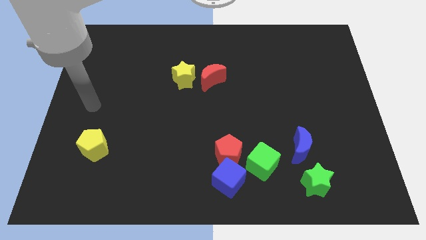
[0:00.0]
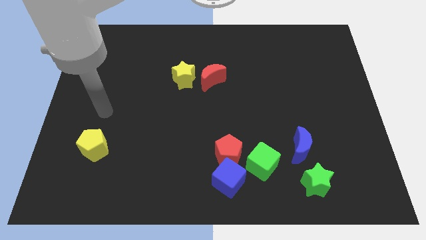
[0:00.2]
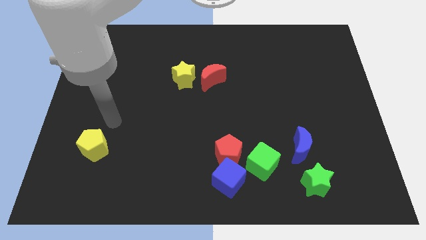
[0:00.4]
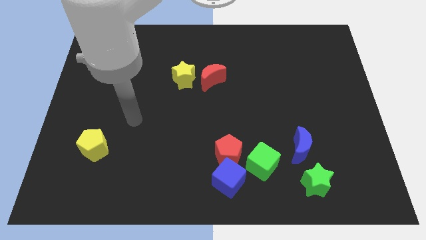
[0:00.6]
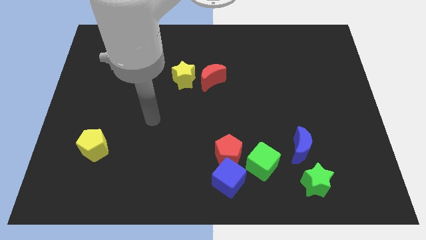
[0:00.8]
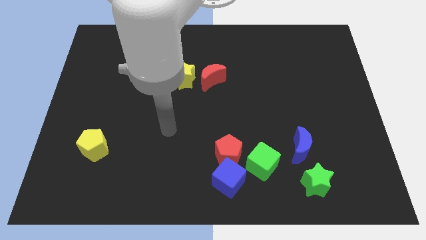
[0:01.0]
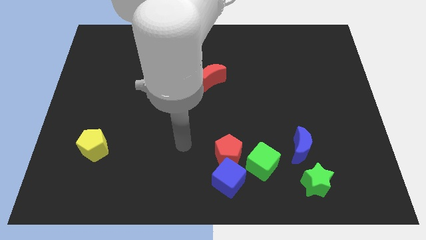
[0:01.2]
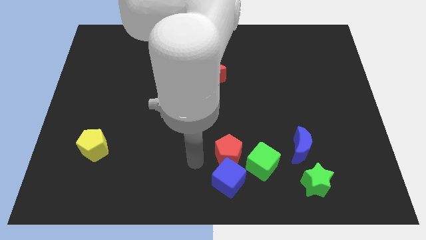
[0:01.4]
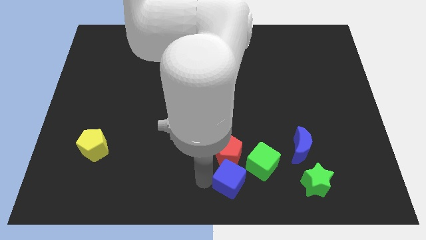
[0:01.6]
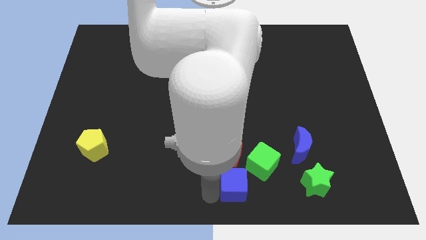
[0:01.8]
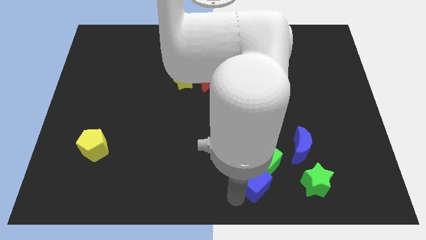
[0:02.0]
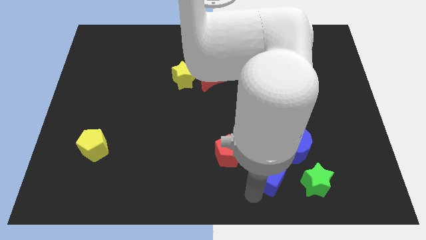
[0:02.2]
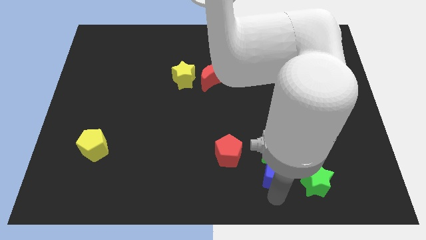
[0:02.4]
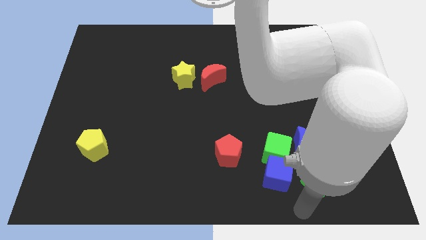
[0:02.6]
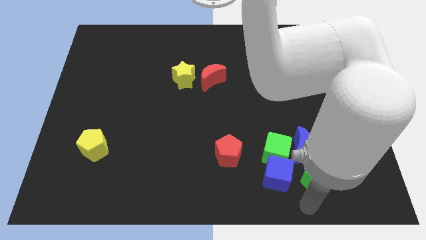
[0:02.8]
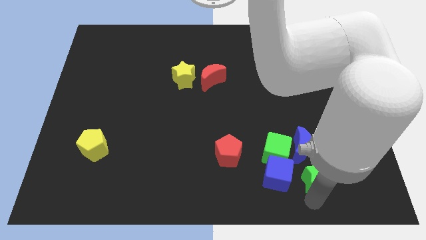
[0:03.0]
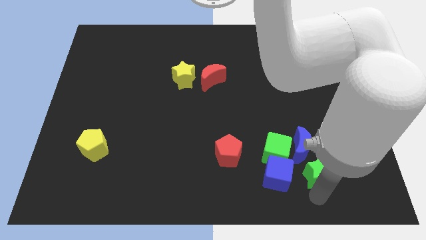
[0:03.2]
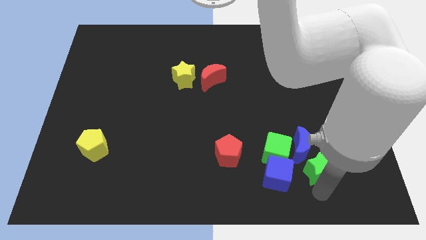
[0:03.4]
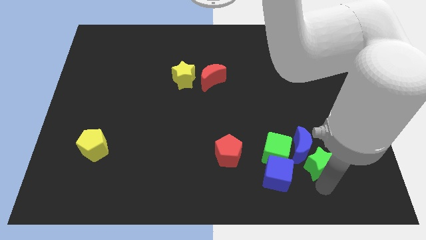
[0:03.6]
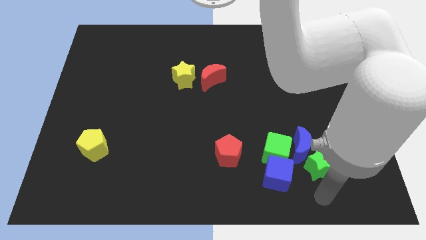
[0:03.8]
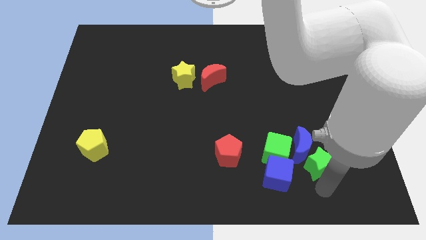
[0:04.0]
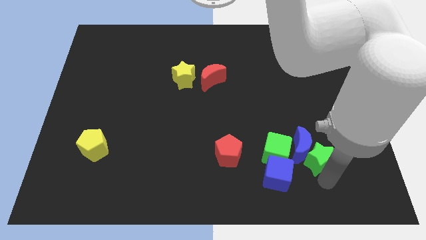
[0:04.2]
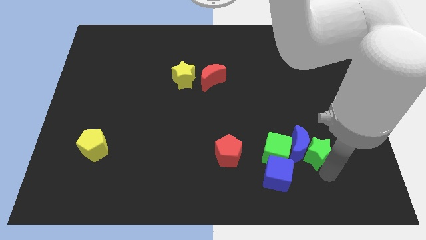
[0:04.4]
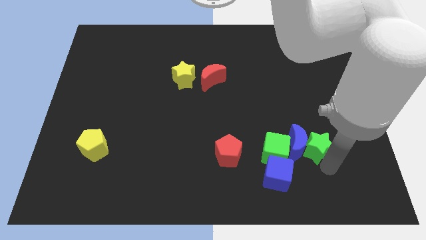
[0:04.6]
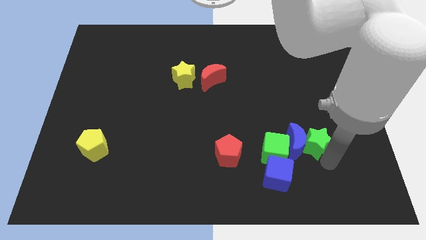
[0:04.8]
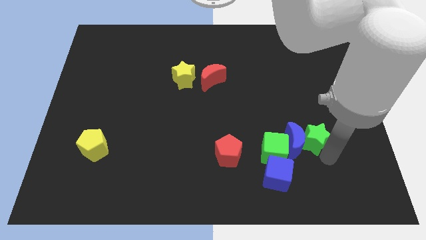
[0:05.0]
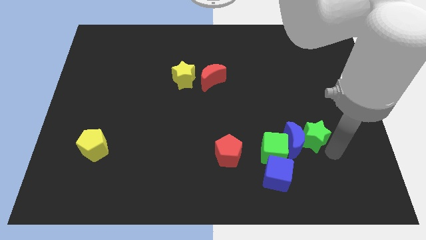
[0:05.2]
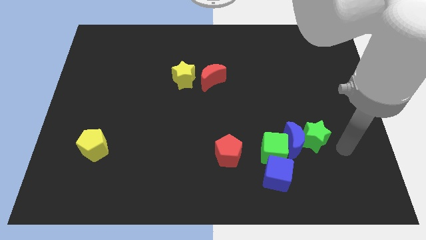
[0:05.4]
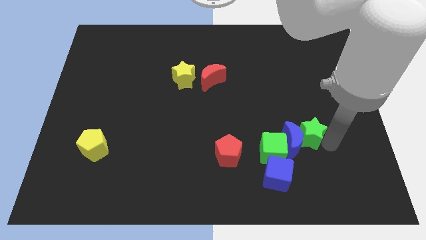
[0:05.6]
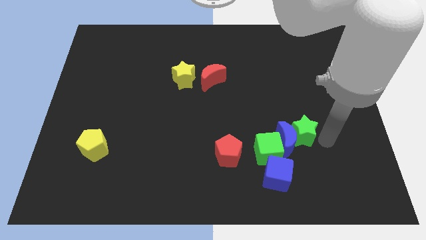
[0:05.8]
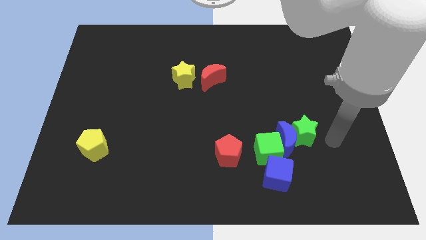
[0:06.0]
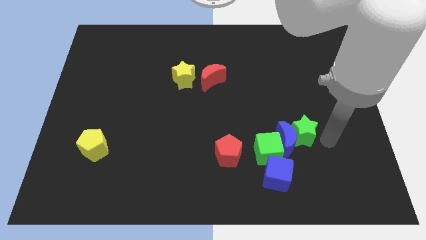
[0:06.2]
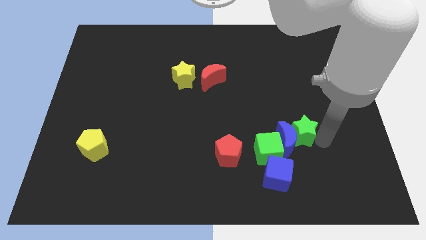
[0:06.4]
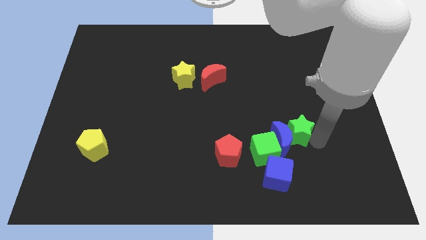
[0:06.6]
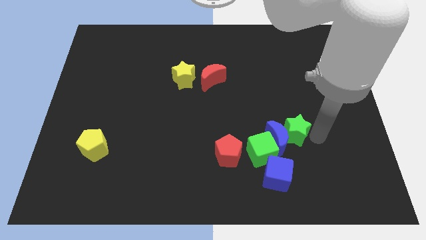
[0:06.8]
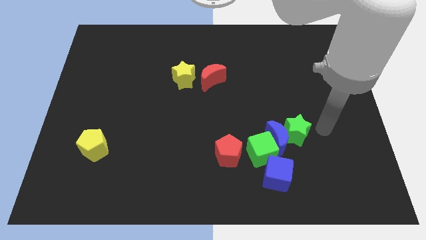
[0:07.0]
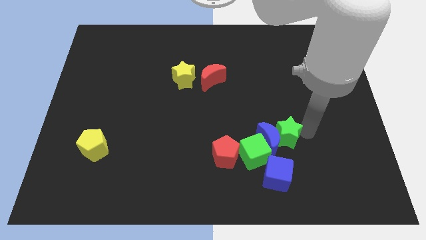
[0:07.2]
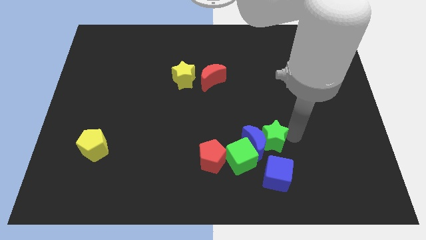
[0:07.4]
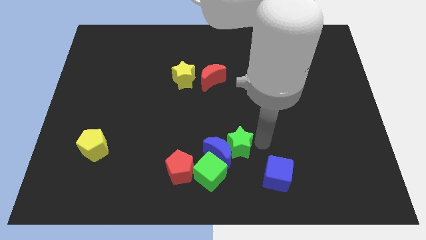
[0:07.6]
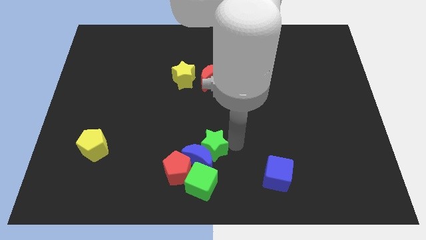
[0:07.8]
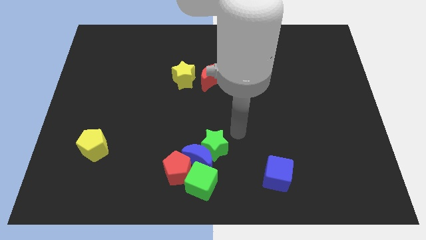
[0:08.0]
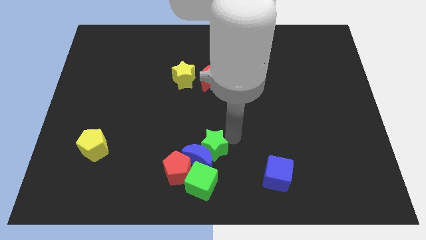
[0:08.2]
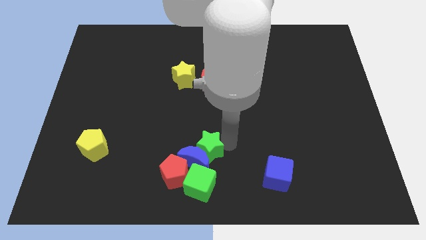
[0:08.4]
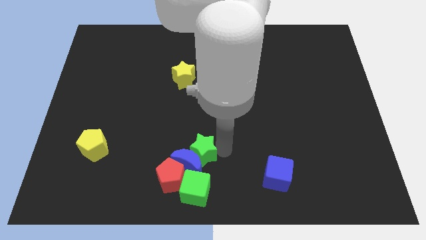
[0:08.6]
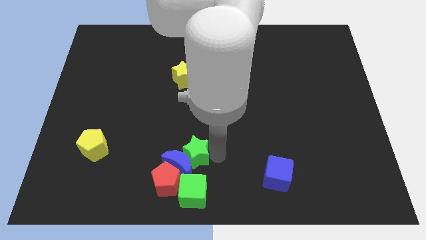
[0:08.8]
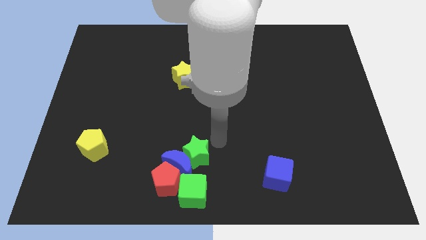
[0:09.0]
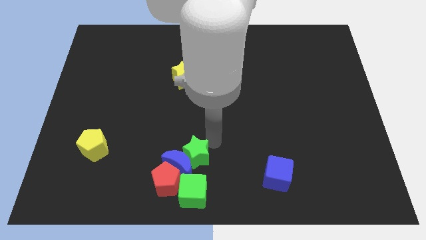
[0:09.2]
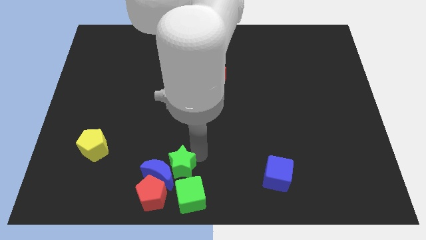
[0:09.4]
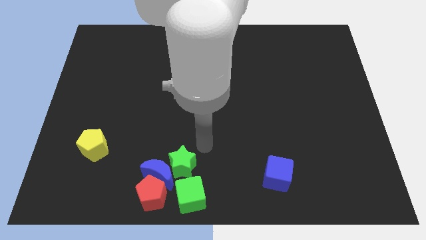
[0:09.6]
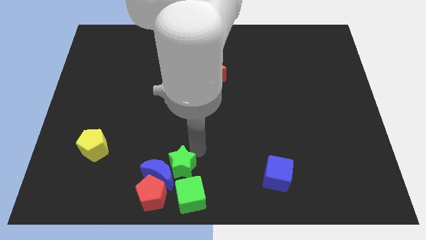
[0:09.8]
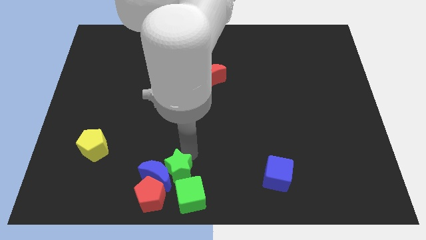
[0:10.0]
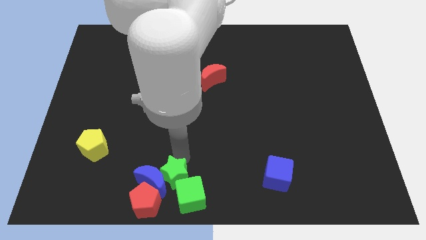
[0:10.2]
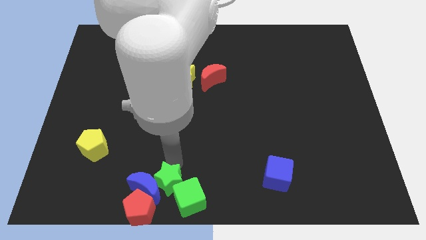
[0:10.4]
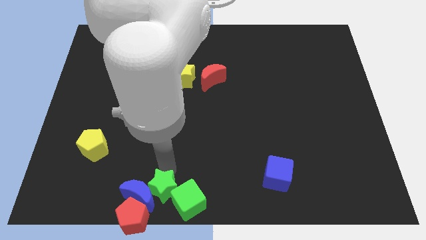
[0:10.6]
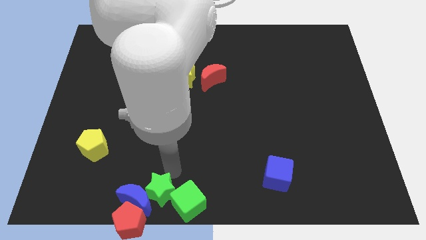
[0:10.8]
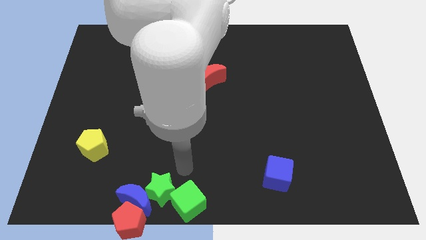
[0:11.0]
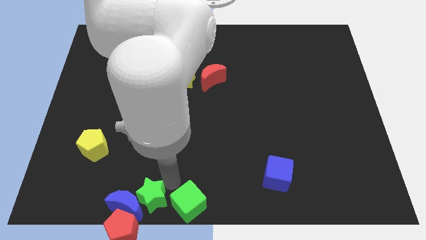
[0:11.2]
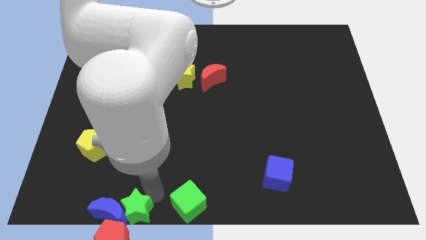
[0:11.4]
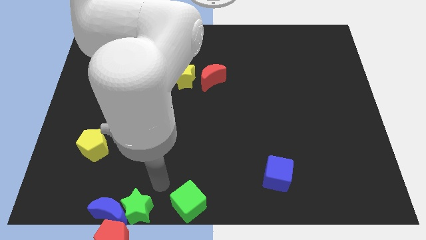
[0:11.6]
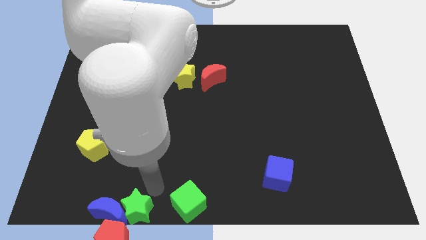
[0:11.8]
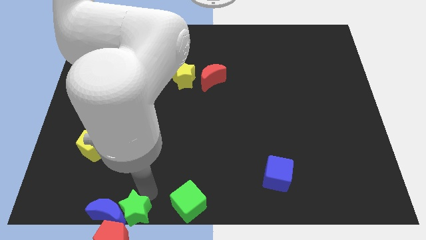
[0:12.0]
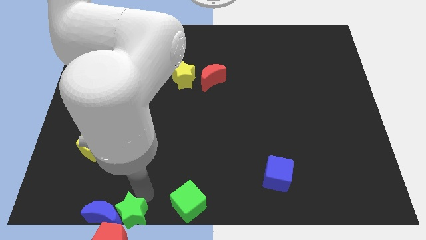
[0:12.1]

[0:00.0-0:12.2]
slide the green star to the red pentagon
